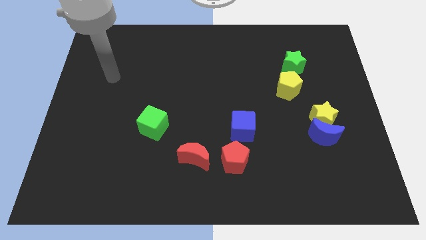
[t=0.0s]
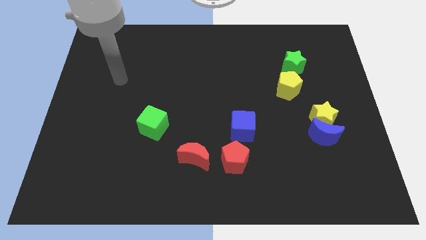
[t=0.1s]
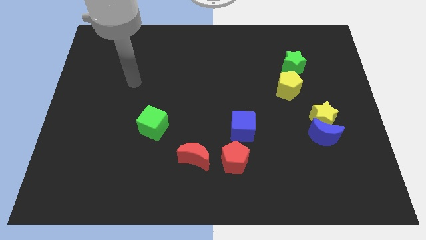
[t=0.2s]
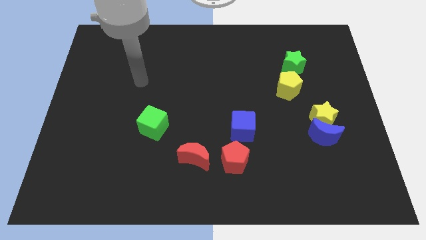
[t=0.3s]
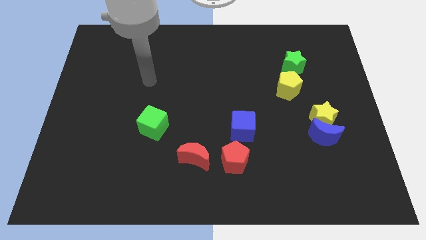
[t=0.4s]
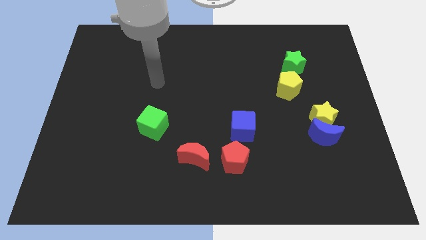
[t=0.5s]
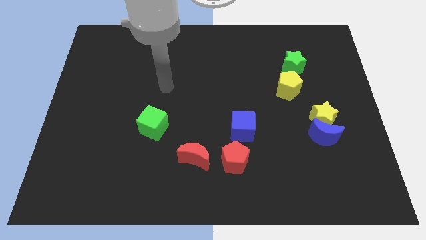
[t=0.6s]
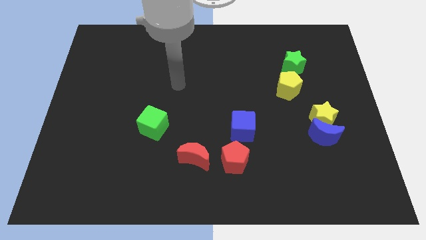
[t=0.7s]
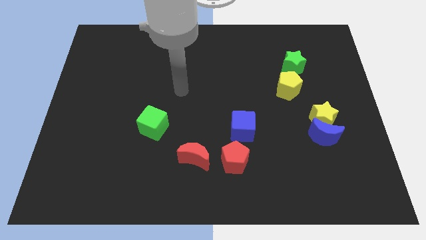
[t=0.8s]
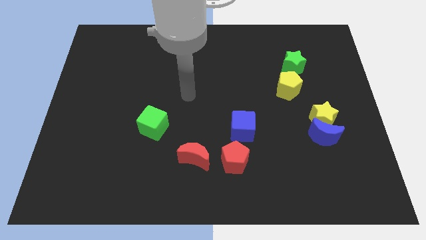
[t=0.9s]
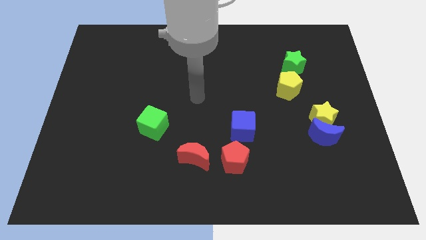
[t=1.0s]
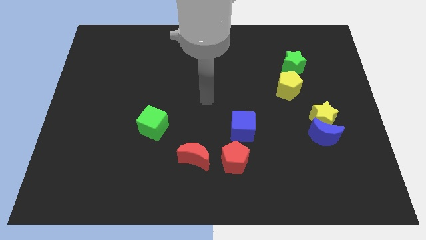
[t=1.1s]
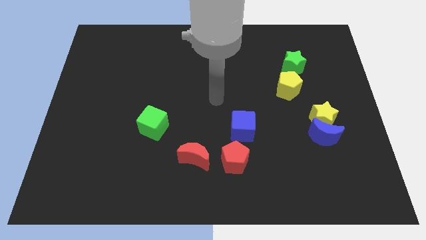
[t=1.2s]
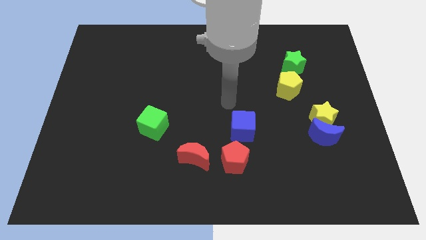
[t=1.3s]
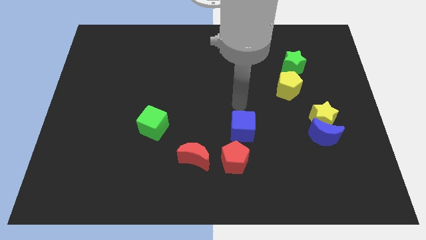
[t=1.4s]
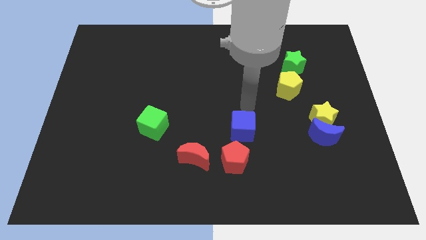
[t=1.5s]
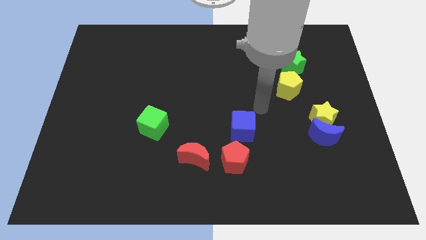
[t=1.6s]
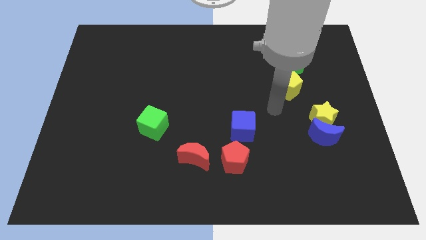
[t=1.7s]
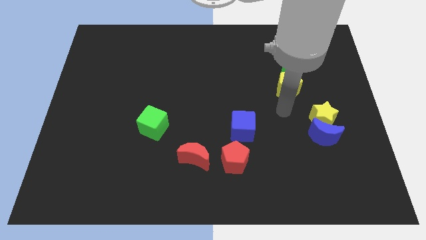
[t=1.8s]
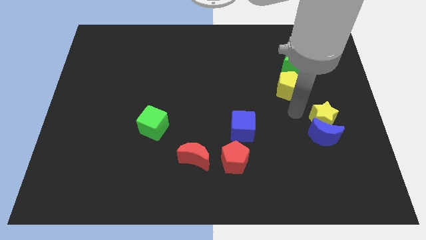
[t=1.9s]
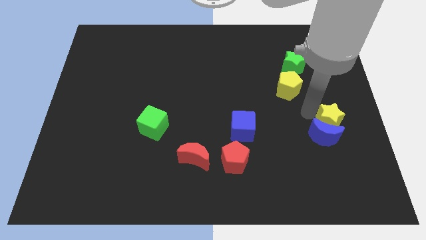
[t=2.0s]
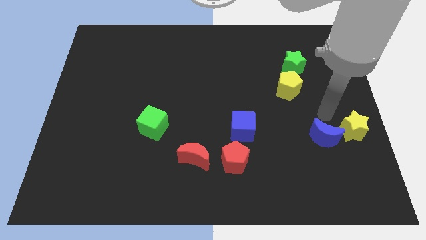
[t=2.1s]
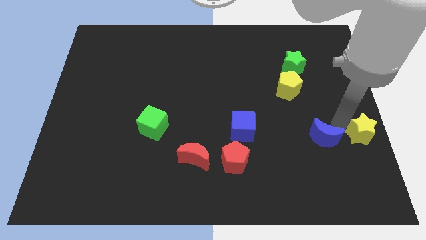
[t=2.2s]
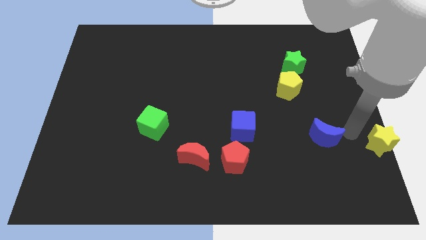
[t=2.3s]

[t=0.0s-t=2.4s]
move the blue moon away from the yellow star

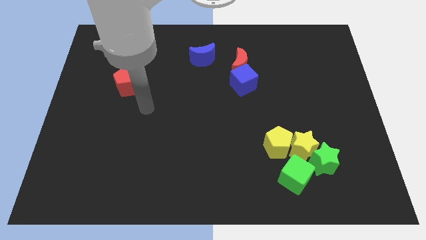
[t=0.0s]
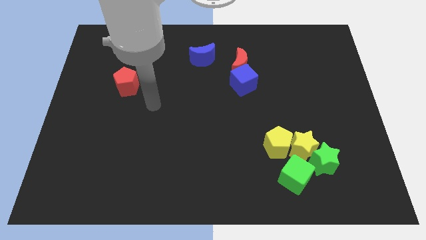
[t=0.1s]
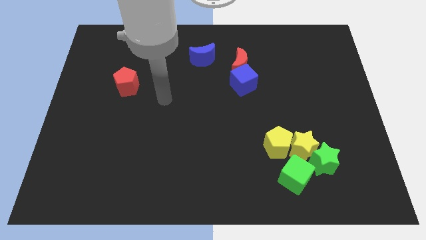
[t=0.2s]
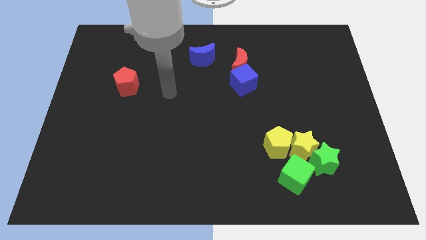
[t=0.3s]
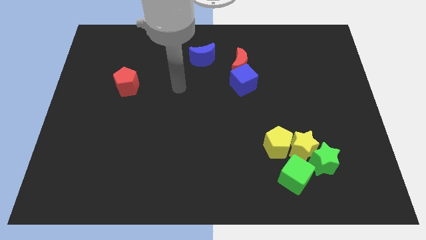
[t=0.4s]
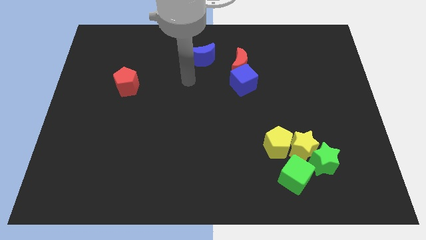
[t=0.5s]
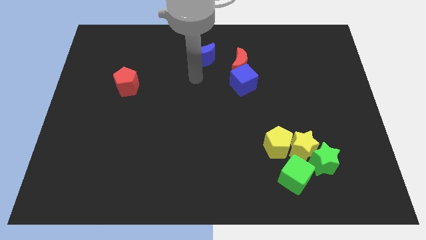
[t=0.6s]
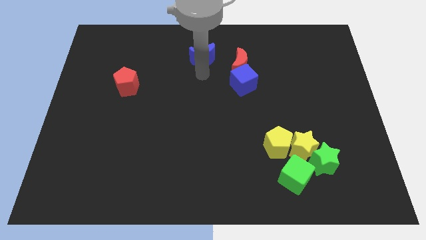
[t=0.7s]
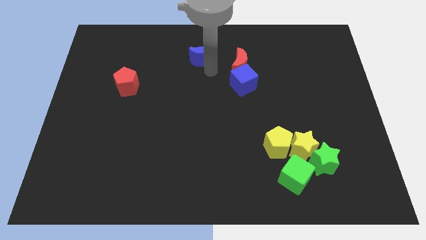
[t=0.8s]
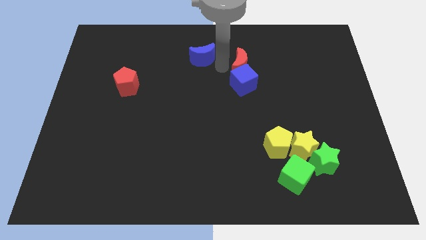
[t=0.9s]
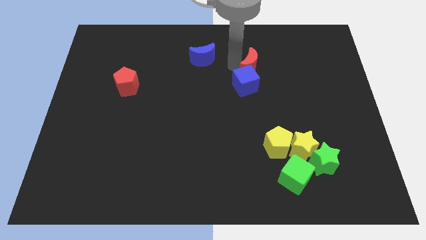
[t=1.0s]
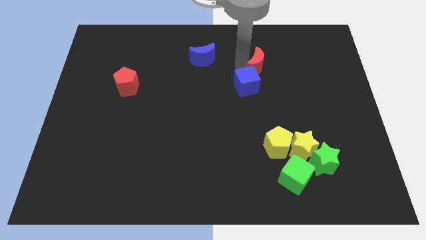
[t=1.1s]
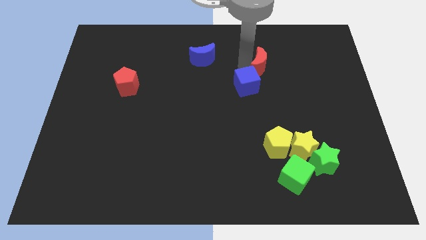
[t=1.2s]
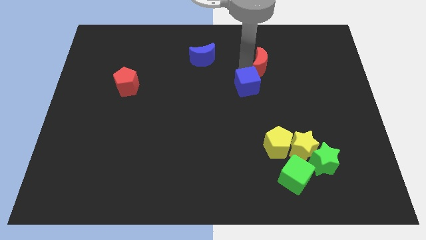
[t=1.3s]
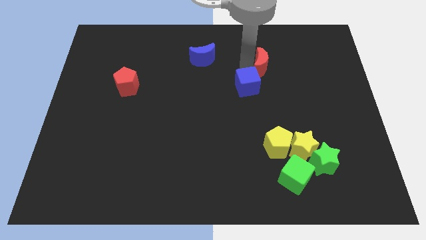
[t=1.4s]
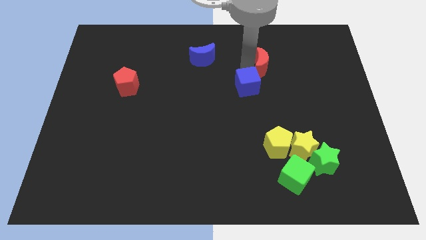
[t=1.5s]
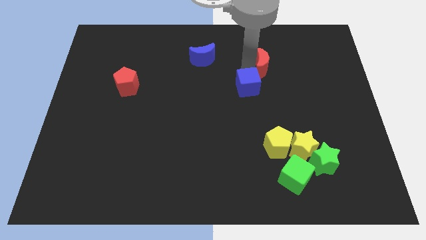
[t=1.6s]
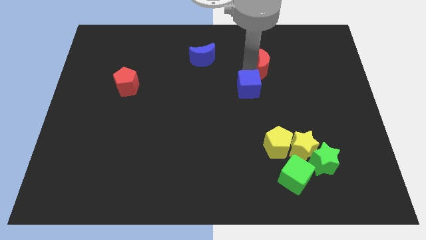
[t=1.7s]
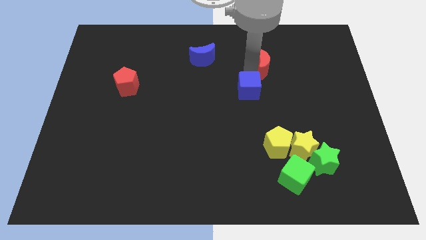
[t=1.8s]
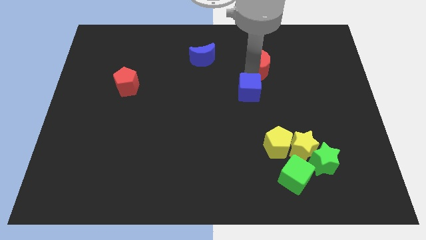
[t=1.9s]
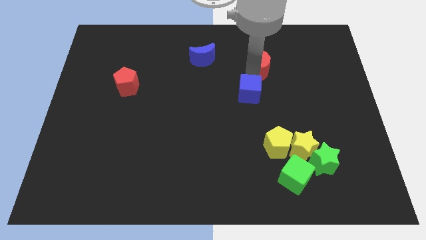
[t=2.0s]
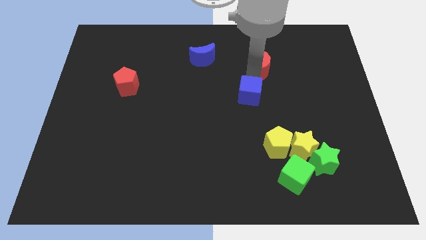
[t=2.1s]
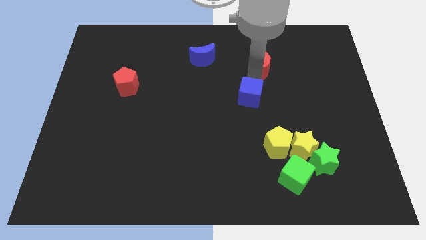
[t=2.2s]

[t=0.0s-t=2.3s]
pull the blue cube apart from the red moon

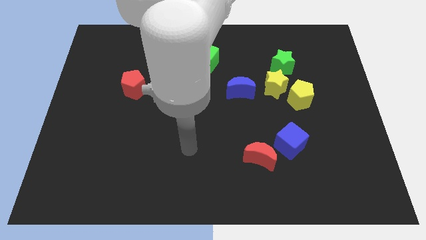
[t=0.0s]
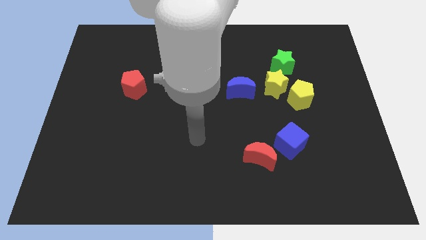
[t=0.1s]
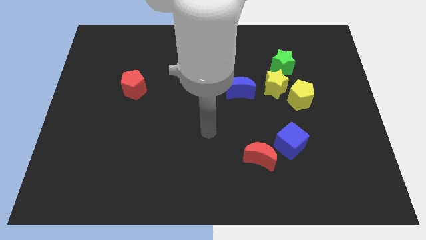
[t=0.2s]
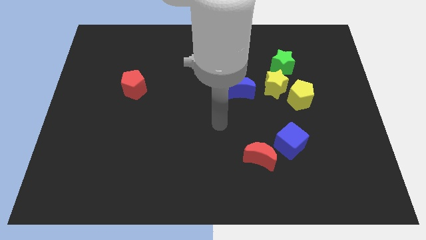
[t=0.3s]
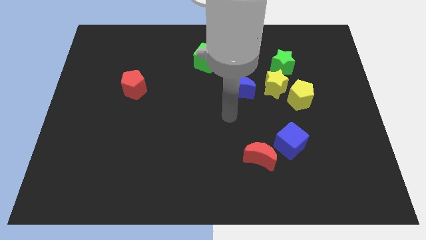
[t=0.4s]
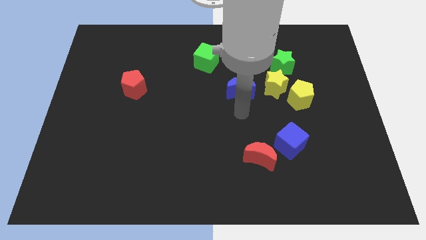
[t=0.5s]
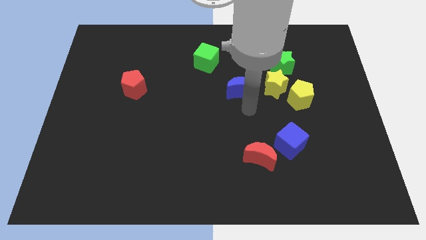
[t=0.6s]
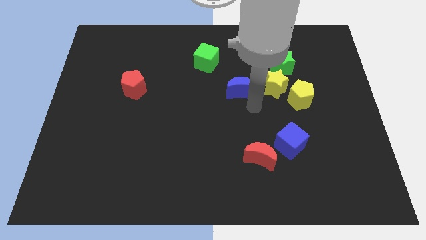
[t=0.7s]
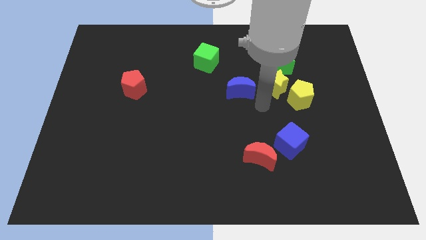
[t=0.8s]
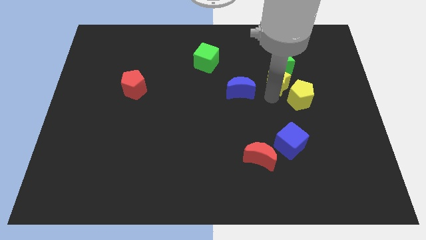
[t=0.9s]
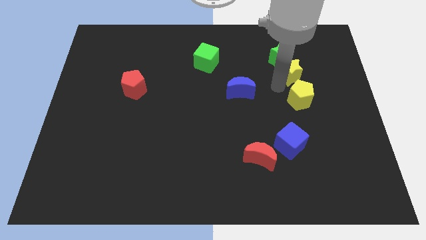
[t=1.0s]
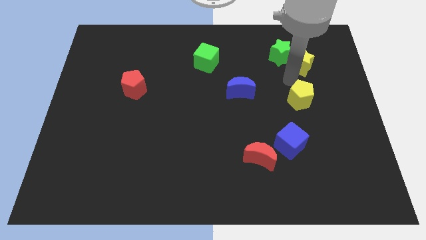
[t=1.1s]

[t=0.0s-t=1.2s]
move the yellow pentagon away from the yellow star

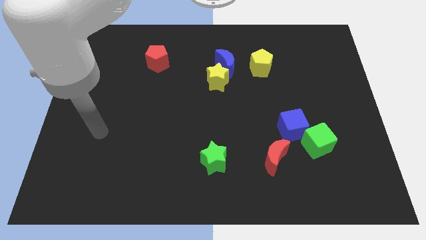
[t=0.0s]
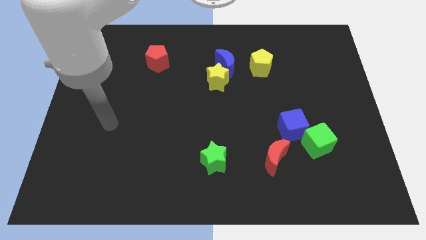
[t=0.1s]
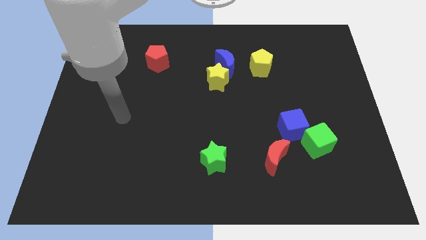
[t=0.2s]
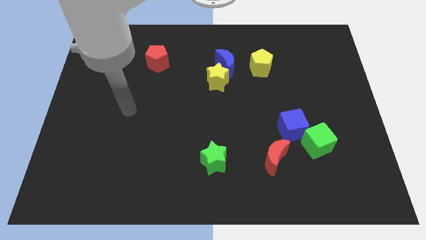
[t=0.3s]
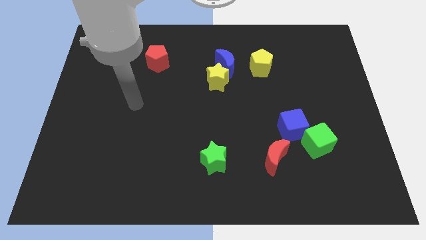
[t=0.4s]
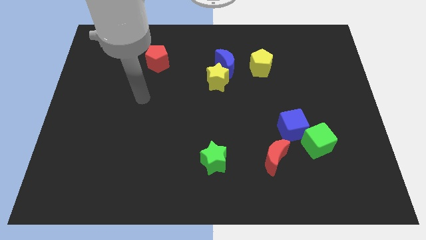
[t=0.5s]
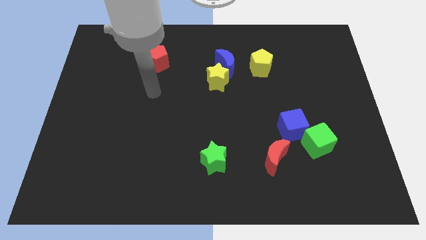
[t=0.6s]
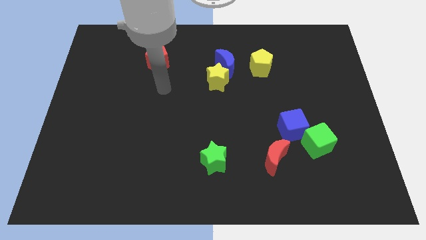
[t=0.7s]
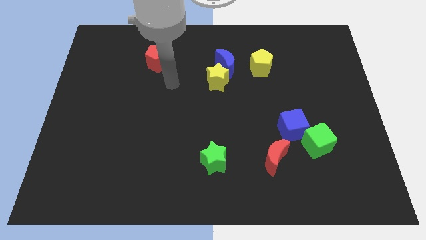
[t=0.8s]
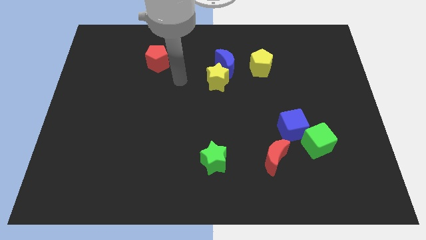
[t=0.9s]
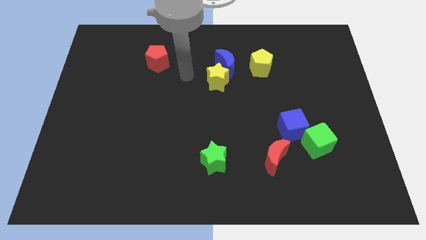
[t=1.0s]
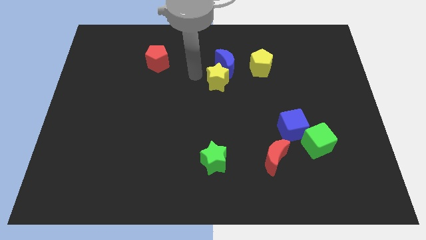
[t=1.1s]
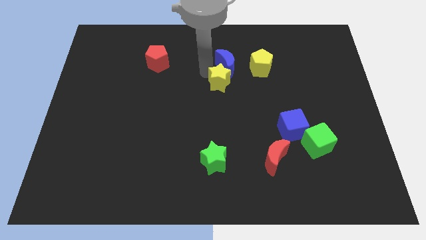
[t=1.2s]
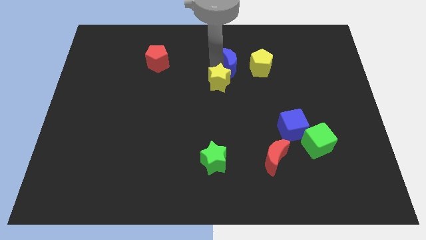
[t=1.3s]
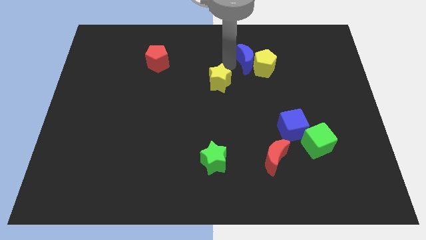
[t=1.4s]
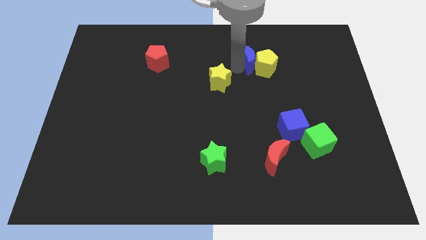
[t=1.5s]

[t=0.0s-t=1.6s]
move the yellow star away from the blue moon

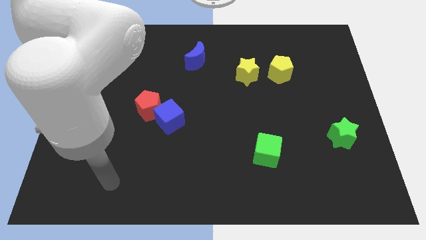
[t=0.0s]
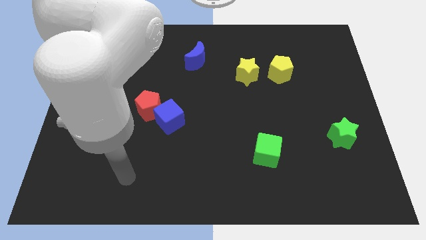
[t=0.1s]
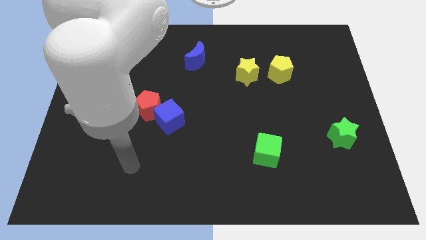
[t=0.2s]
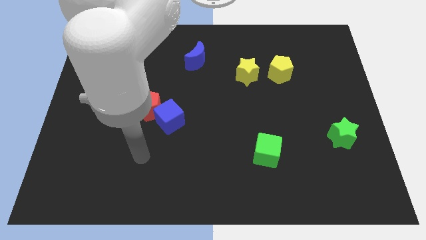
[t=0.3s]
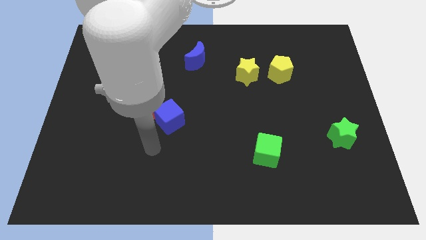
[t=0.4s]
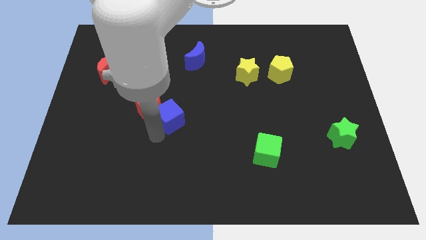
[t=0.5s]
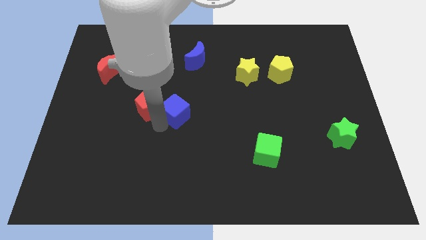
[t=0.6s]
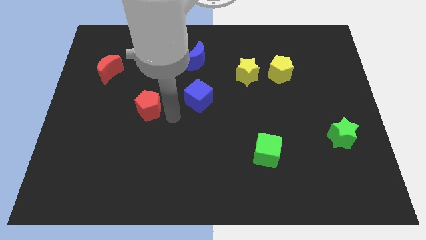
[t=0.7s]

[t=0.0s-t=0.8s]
separate the red pentagon from the blue cube

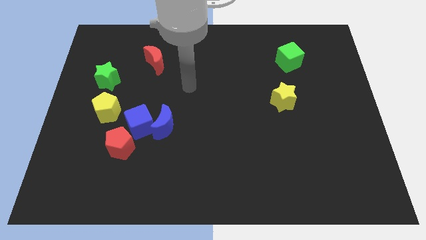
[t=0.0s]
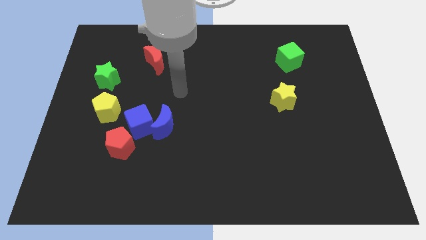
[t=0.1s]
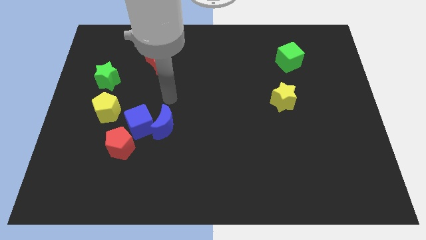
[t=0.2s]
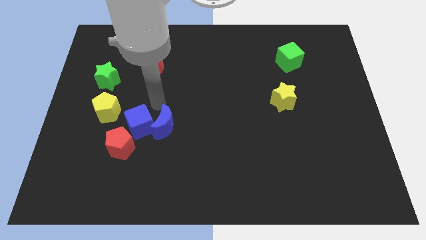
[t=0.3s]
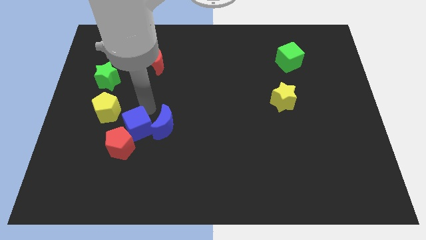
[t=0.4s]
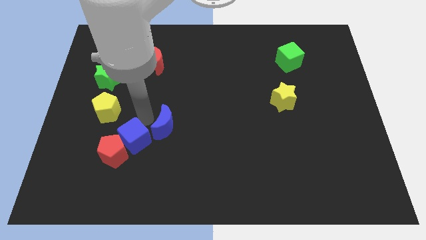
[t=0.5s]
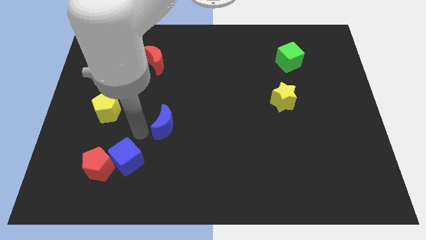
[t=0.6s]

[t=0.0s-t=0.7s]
pull the blue moon apart from the blue cube

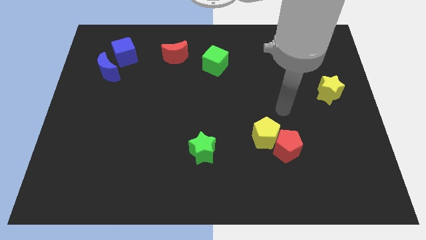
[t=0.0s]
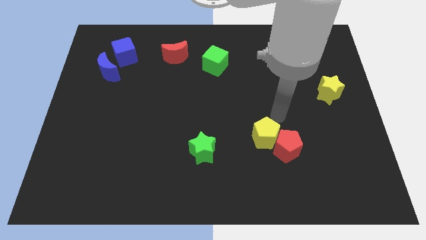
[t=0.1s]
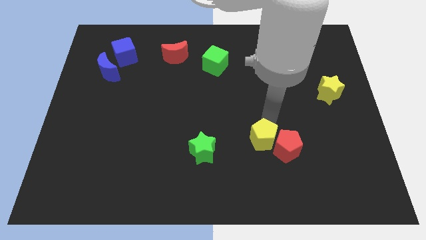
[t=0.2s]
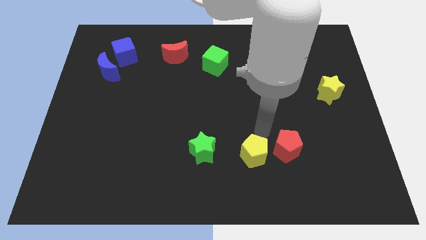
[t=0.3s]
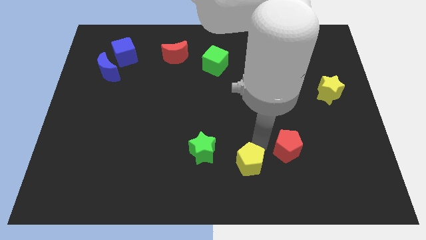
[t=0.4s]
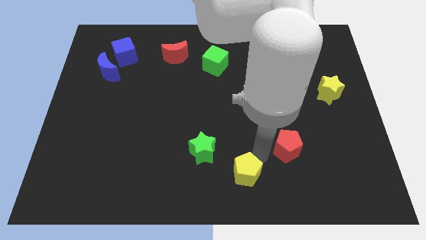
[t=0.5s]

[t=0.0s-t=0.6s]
separate the red pentagon from the yellow pentagon
